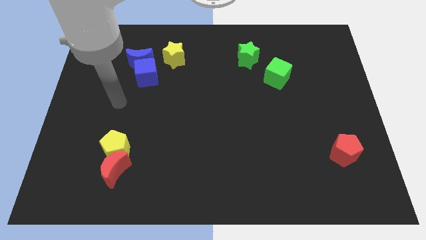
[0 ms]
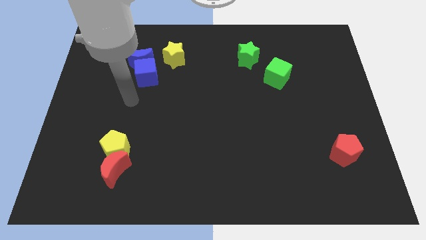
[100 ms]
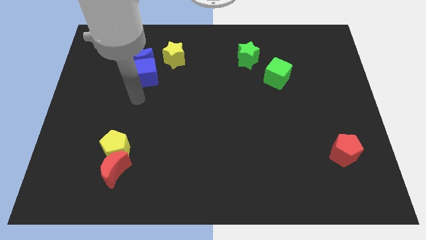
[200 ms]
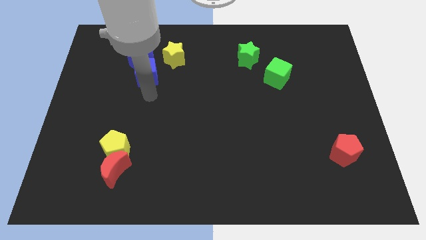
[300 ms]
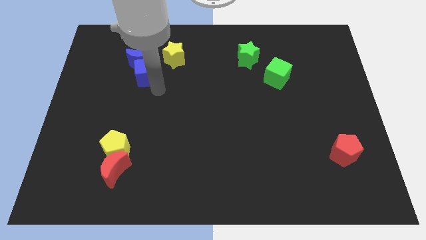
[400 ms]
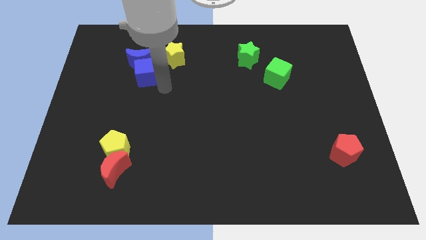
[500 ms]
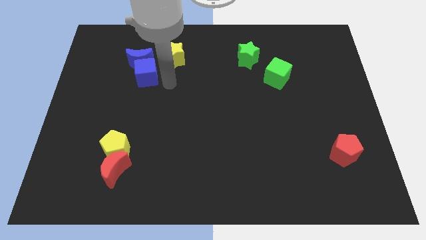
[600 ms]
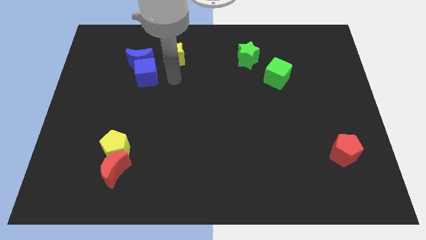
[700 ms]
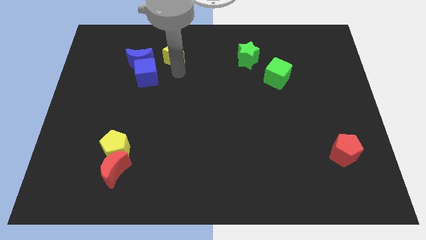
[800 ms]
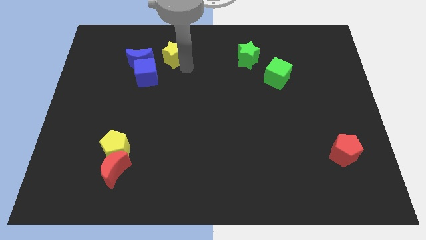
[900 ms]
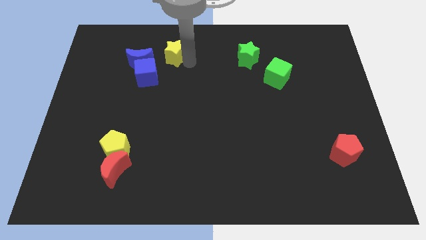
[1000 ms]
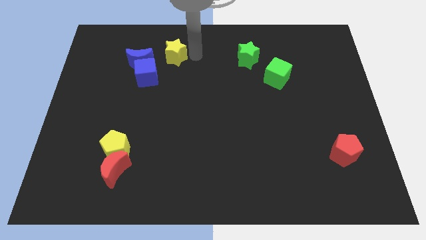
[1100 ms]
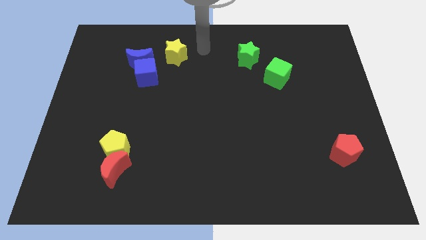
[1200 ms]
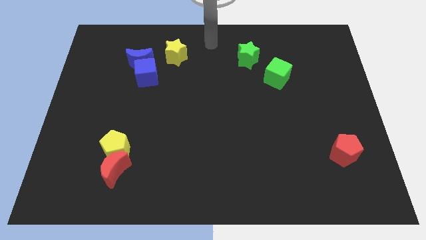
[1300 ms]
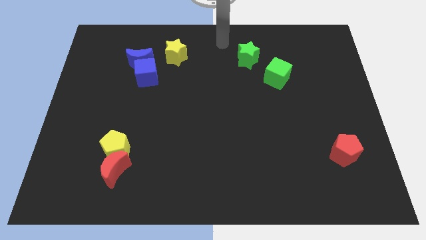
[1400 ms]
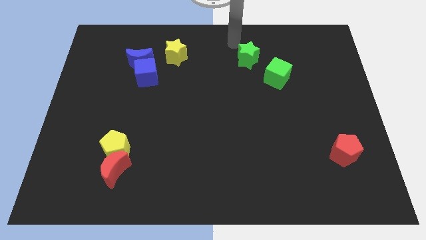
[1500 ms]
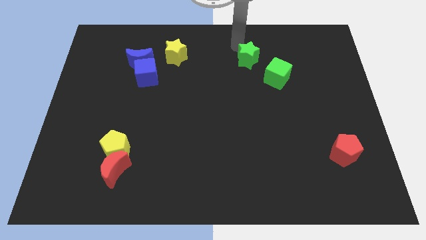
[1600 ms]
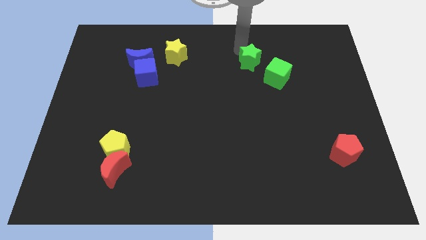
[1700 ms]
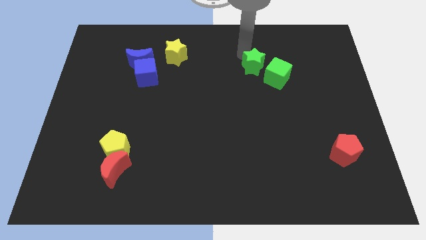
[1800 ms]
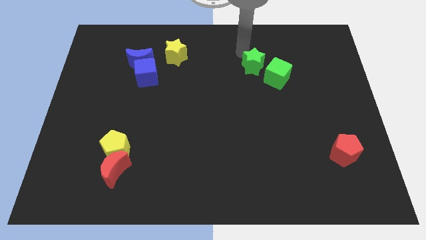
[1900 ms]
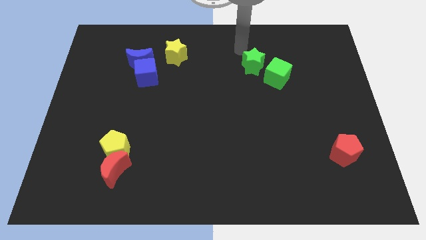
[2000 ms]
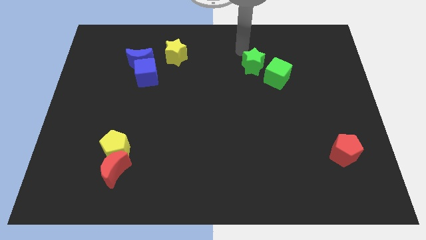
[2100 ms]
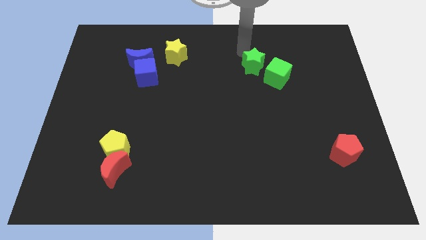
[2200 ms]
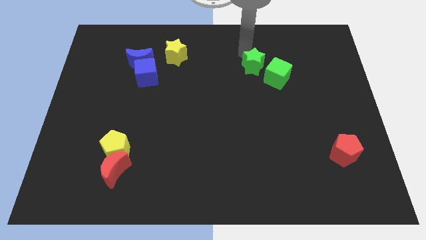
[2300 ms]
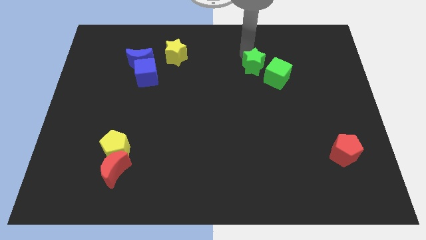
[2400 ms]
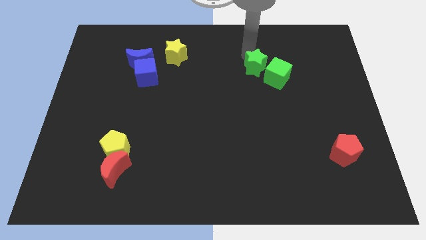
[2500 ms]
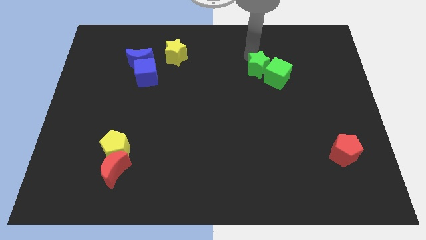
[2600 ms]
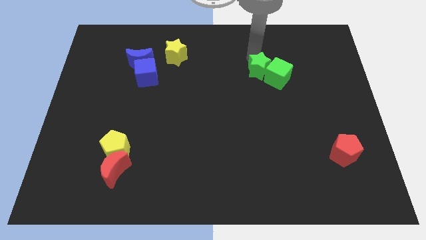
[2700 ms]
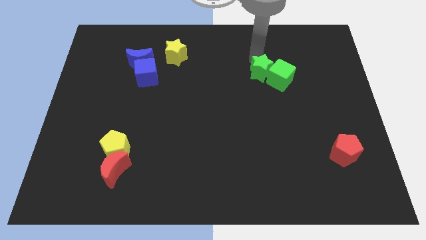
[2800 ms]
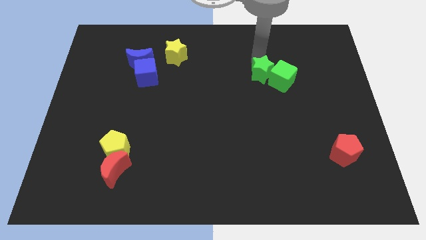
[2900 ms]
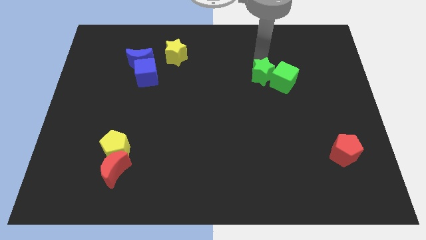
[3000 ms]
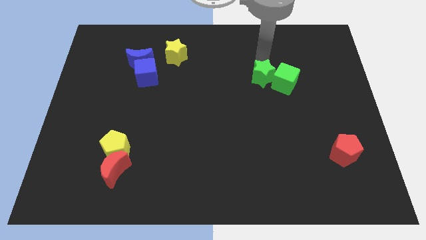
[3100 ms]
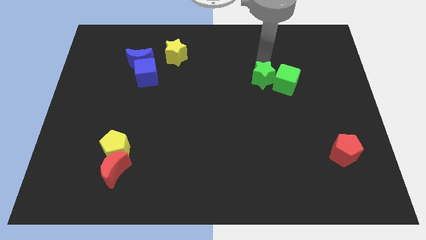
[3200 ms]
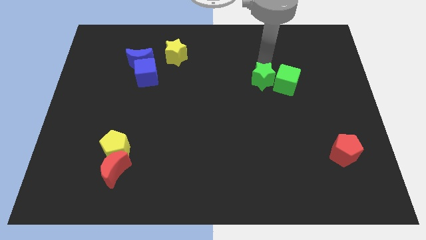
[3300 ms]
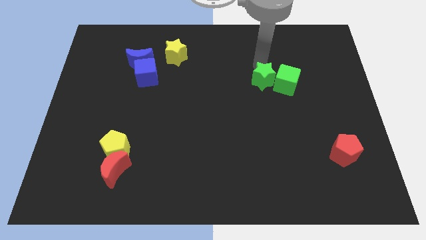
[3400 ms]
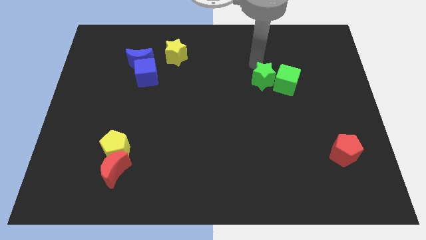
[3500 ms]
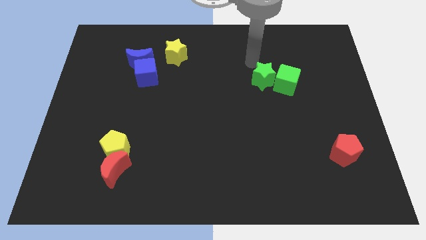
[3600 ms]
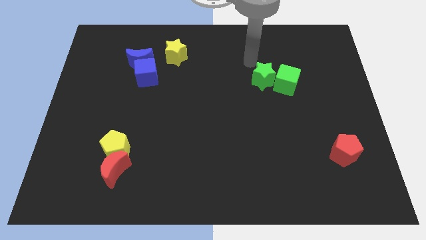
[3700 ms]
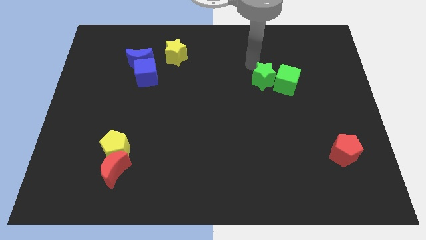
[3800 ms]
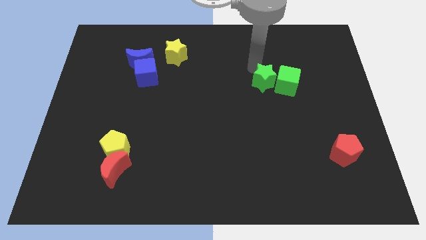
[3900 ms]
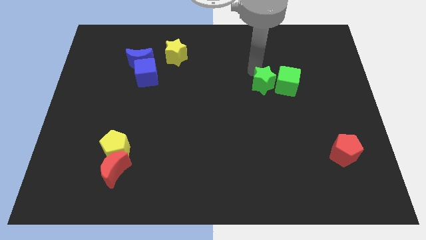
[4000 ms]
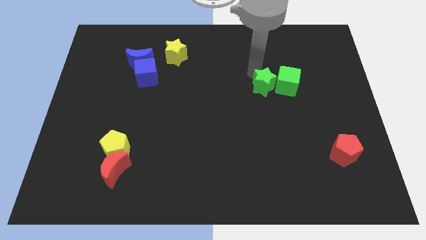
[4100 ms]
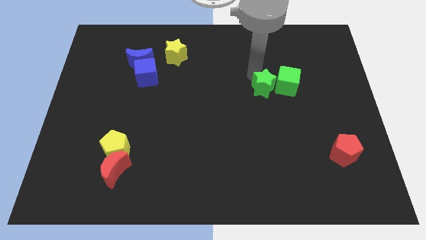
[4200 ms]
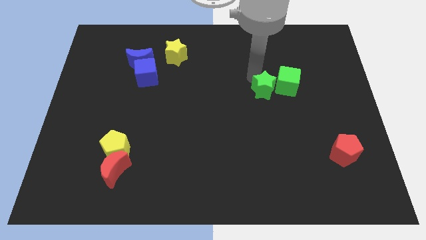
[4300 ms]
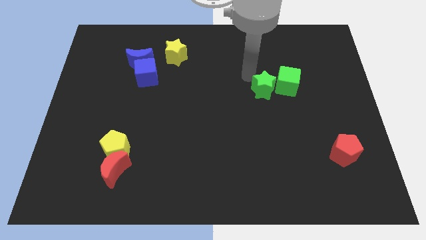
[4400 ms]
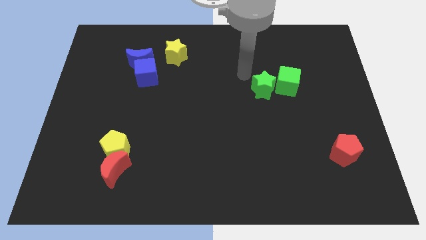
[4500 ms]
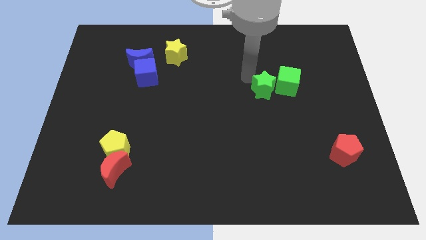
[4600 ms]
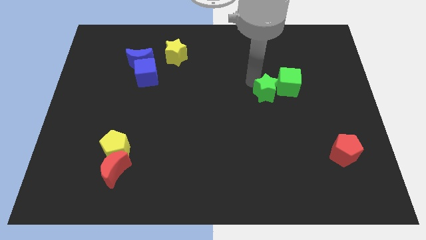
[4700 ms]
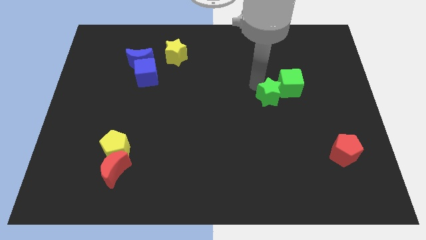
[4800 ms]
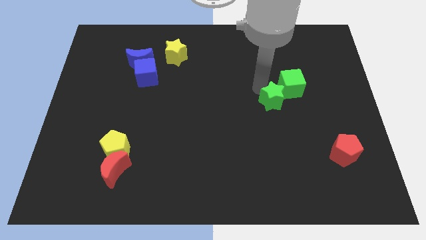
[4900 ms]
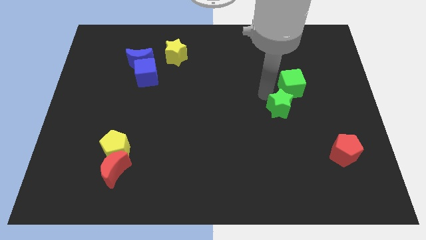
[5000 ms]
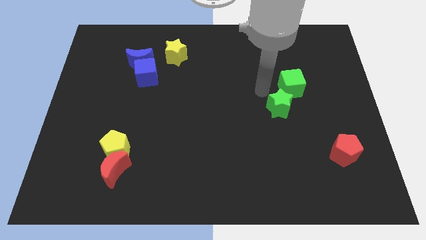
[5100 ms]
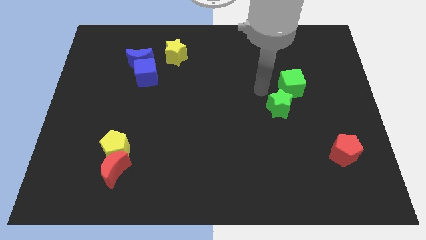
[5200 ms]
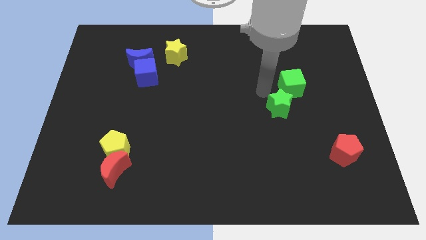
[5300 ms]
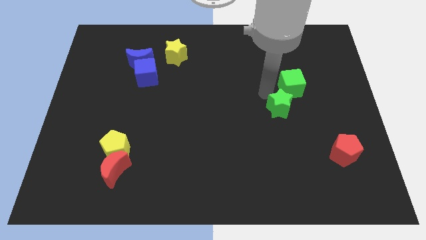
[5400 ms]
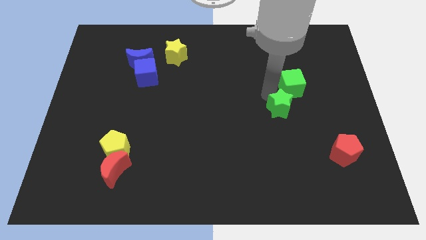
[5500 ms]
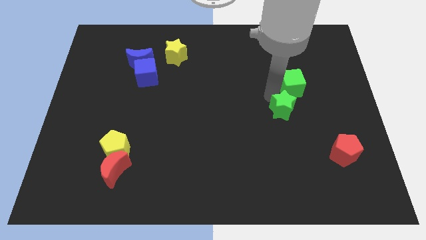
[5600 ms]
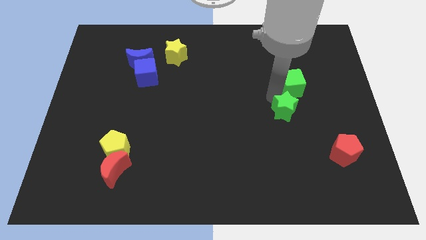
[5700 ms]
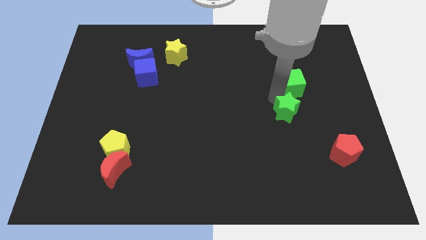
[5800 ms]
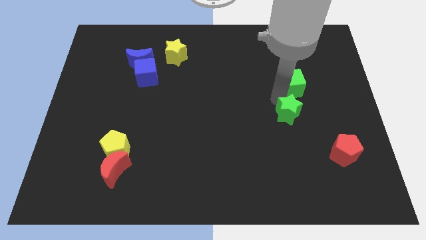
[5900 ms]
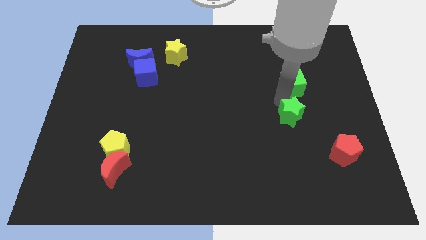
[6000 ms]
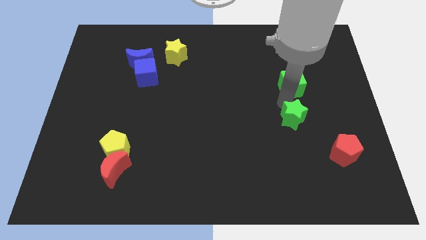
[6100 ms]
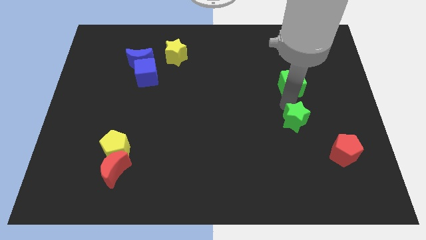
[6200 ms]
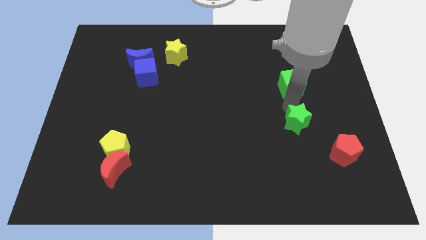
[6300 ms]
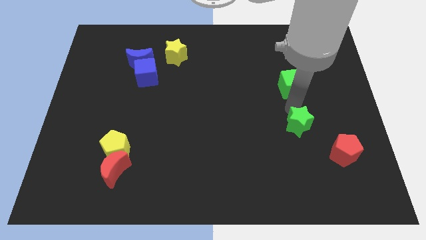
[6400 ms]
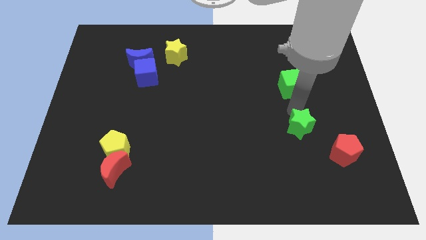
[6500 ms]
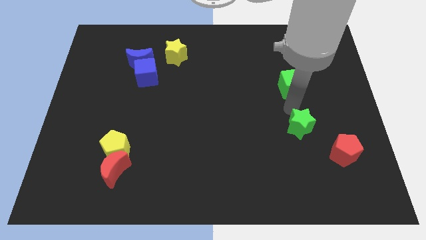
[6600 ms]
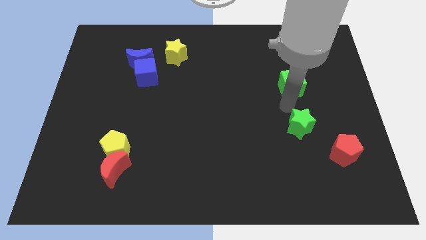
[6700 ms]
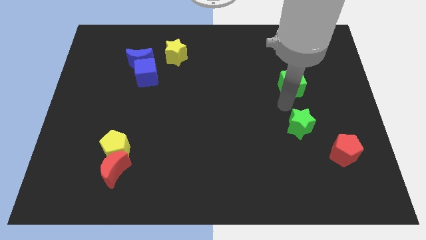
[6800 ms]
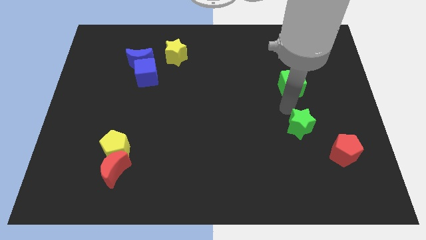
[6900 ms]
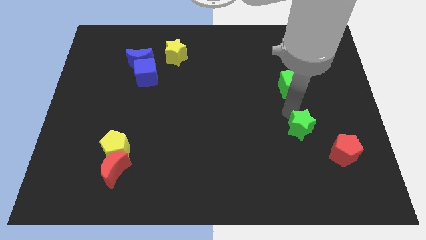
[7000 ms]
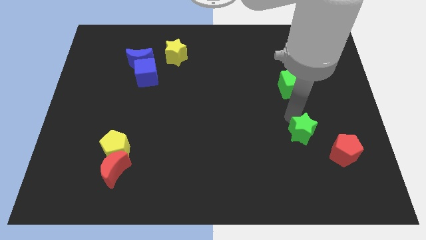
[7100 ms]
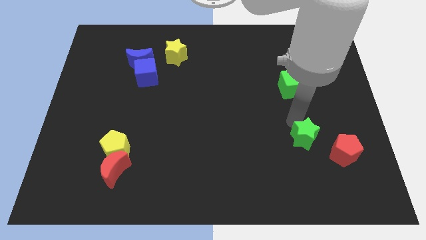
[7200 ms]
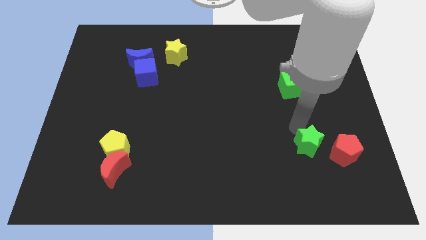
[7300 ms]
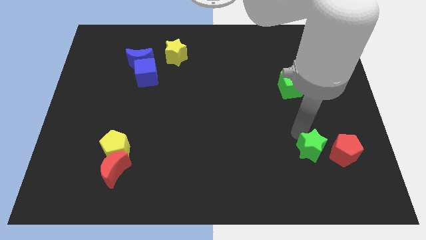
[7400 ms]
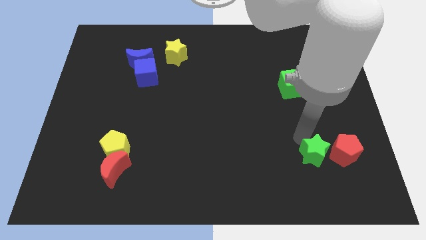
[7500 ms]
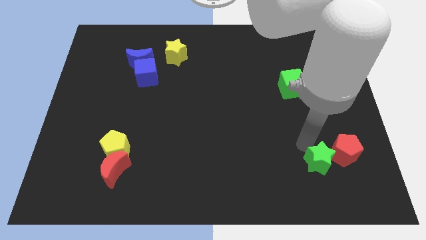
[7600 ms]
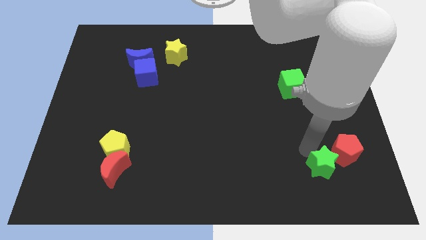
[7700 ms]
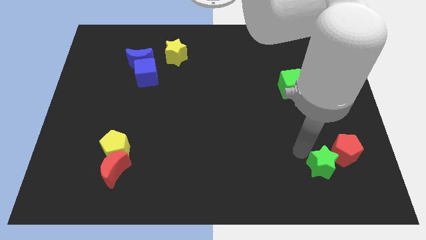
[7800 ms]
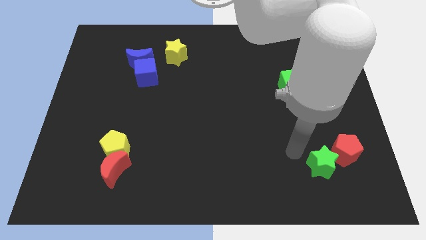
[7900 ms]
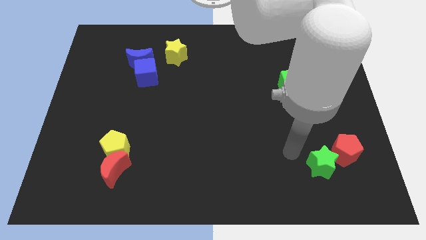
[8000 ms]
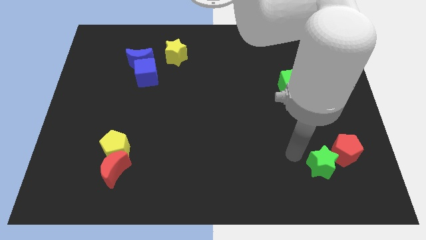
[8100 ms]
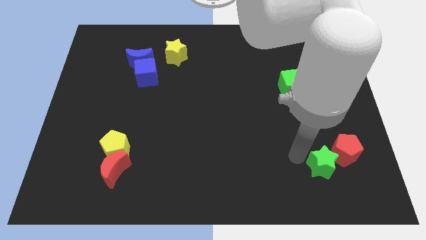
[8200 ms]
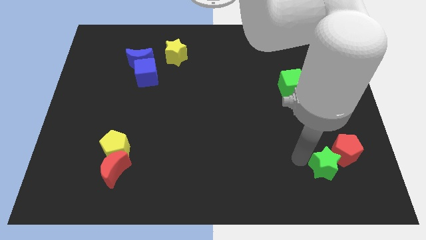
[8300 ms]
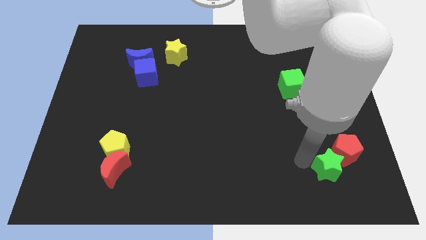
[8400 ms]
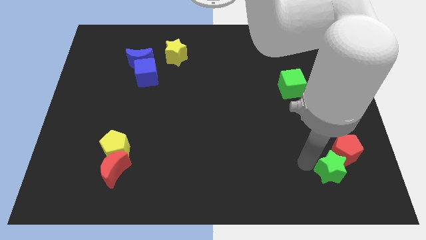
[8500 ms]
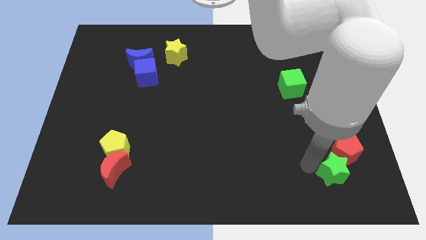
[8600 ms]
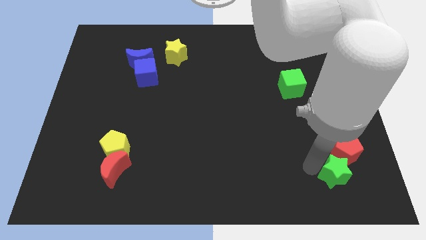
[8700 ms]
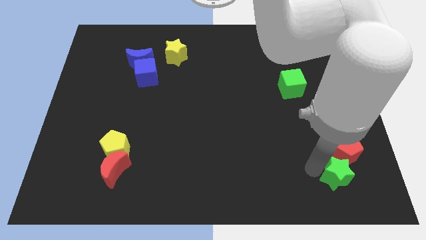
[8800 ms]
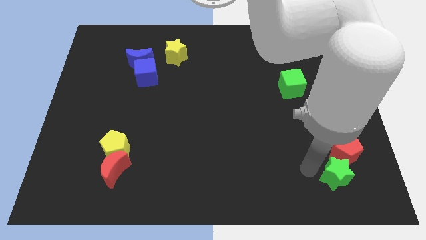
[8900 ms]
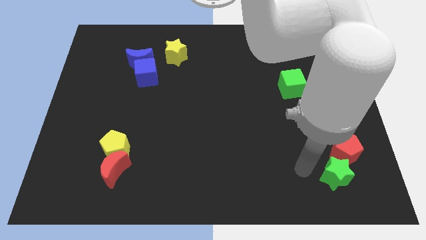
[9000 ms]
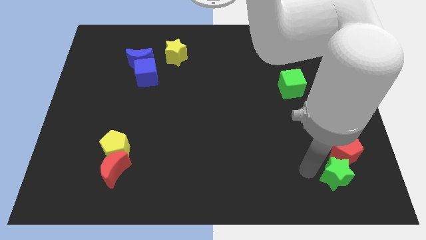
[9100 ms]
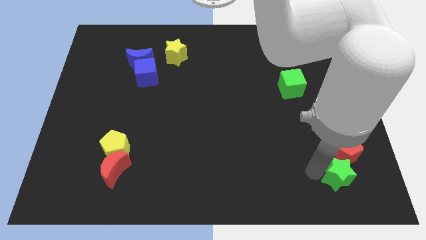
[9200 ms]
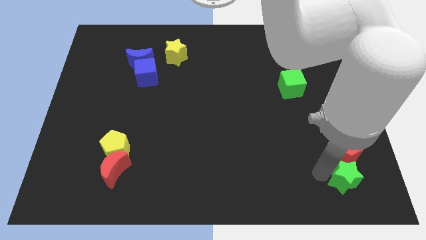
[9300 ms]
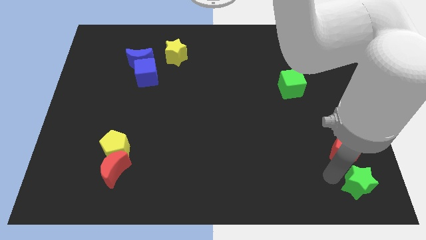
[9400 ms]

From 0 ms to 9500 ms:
slide the green star to the bottom right of the board
